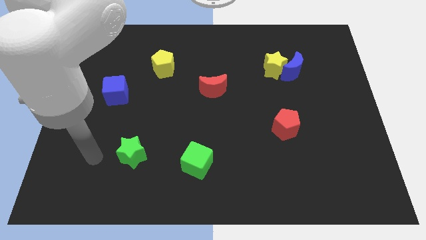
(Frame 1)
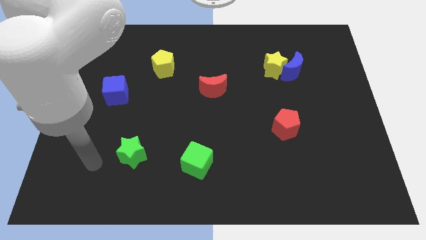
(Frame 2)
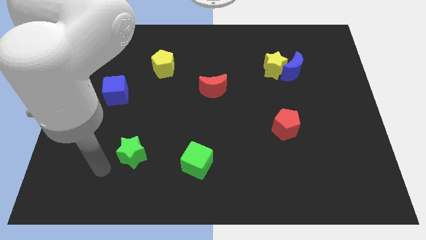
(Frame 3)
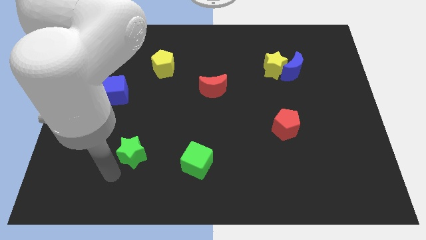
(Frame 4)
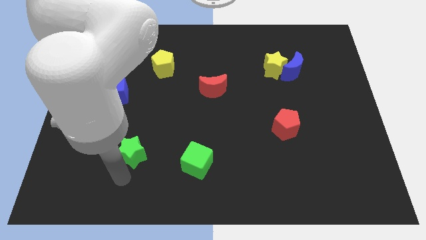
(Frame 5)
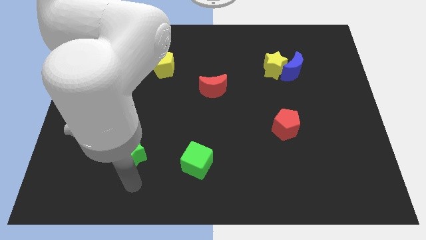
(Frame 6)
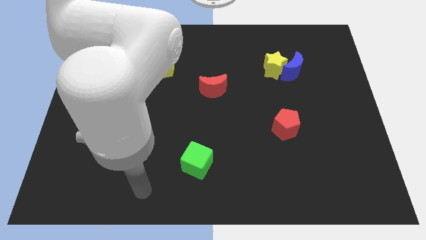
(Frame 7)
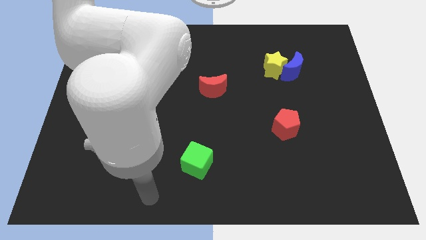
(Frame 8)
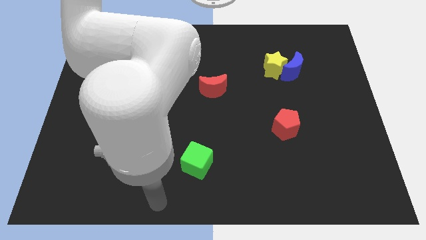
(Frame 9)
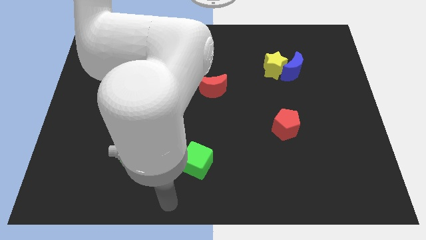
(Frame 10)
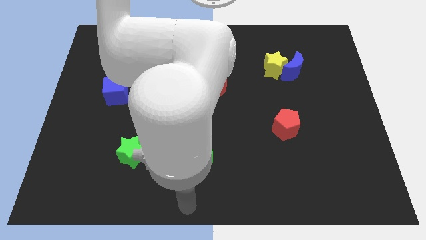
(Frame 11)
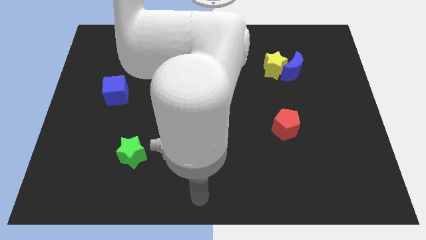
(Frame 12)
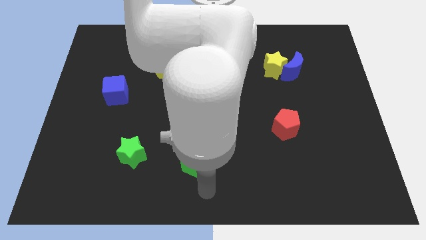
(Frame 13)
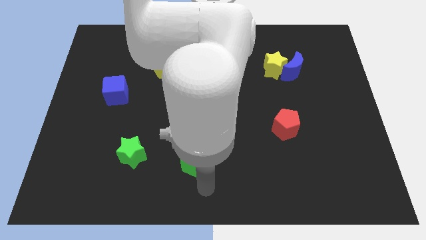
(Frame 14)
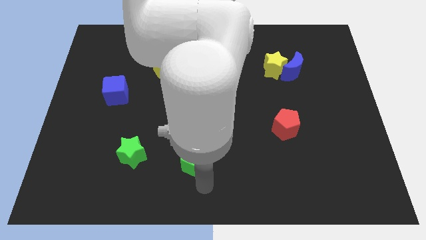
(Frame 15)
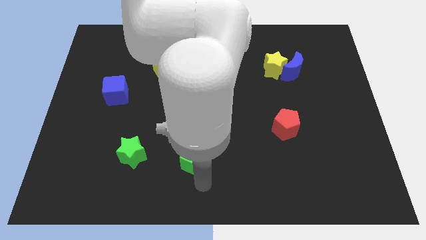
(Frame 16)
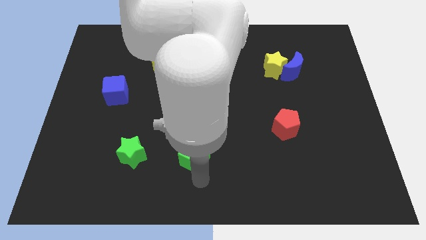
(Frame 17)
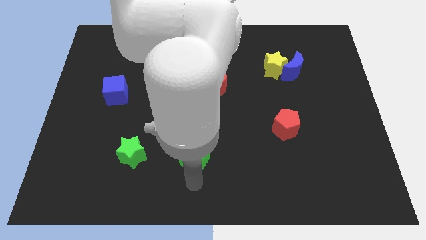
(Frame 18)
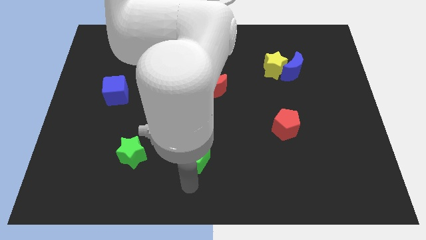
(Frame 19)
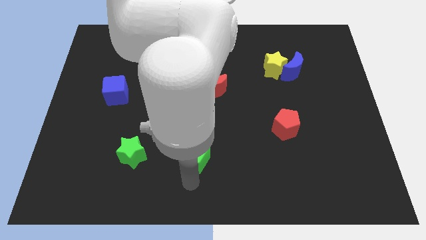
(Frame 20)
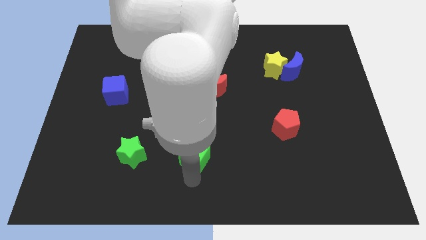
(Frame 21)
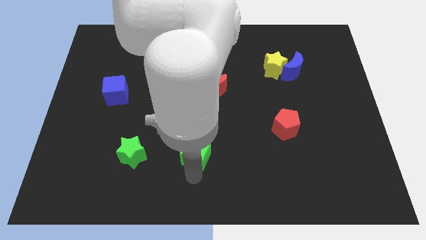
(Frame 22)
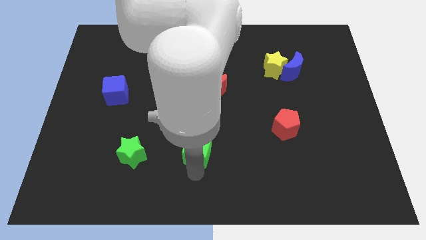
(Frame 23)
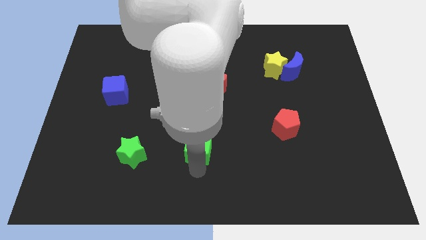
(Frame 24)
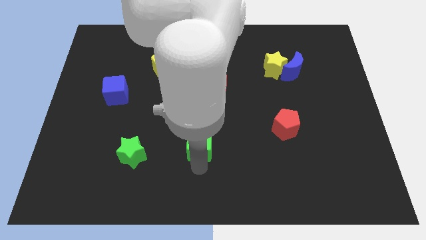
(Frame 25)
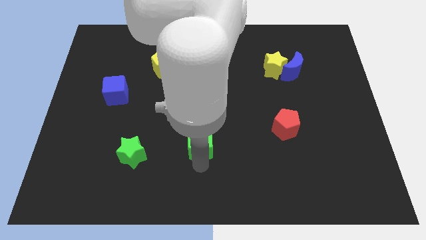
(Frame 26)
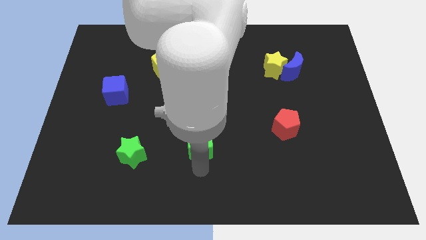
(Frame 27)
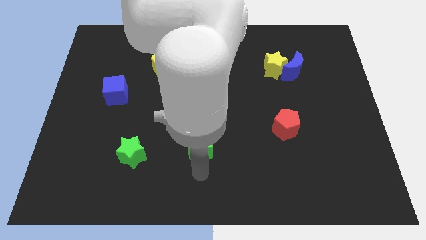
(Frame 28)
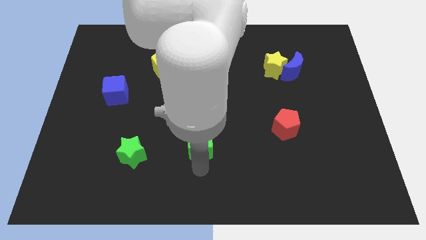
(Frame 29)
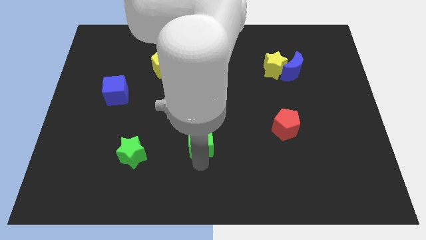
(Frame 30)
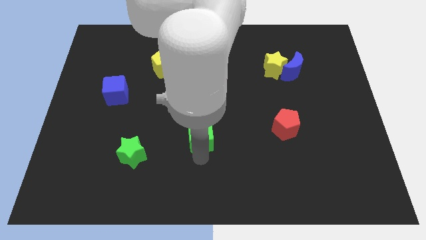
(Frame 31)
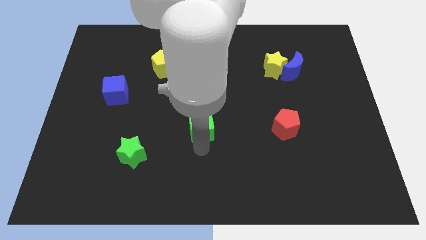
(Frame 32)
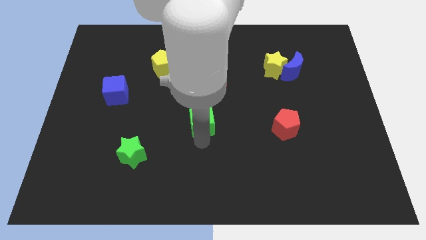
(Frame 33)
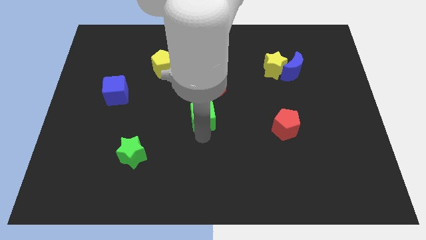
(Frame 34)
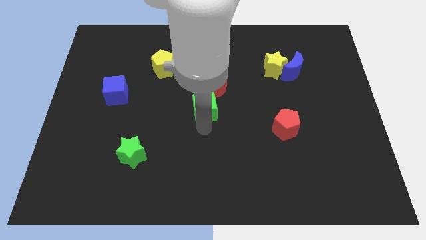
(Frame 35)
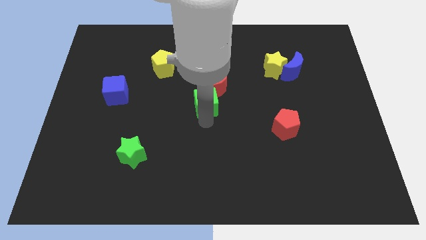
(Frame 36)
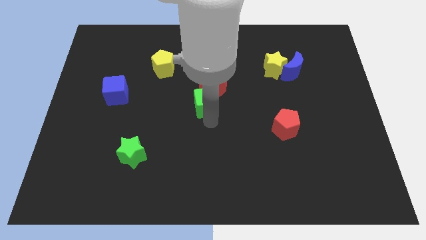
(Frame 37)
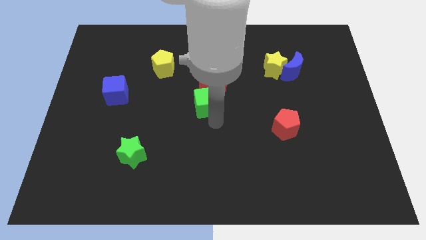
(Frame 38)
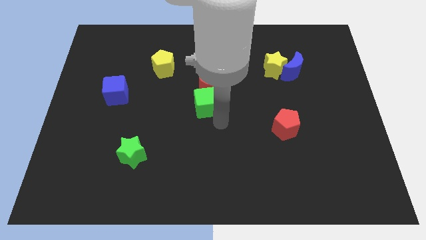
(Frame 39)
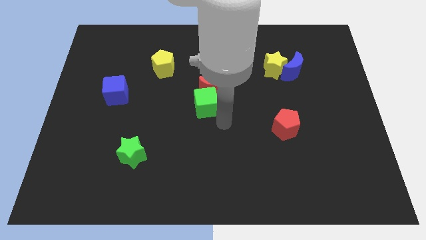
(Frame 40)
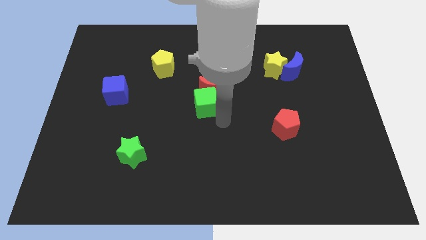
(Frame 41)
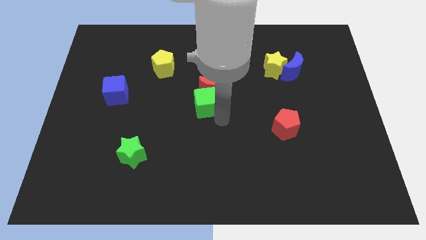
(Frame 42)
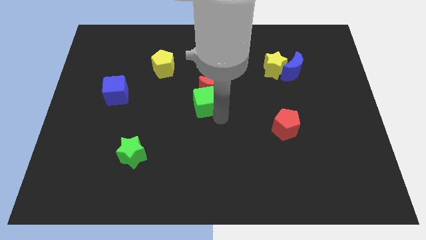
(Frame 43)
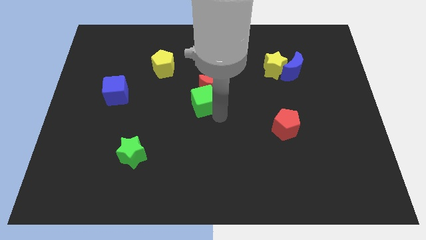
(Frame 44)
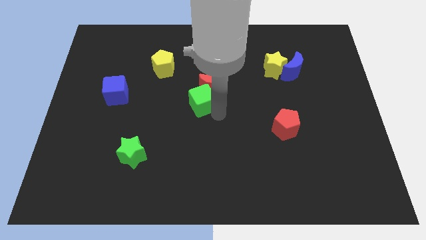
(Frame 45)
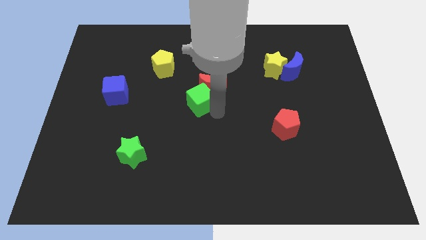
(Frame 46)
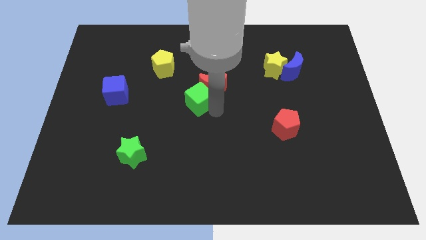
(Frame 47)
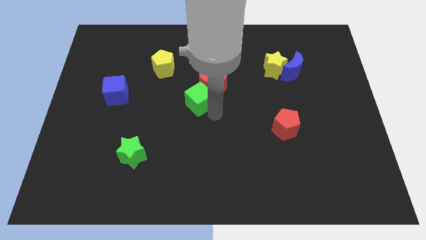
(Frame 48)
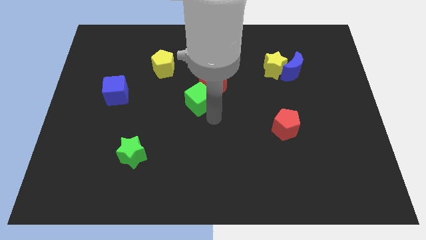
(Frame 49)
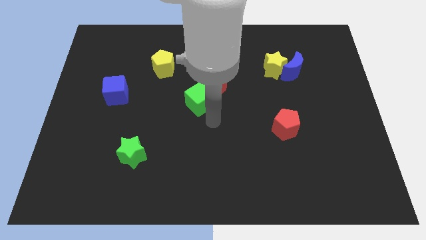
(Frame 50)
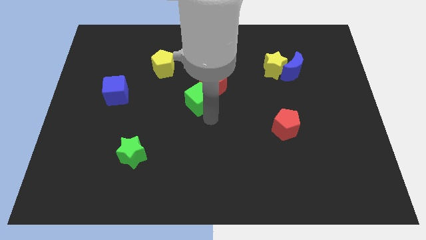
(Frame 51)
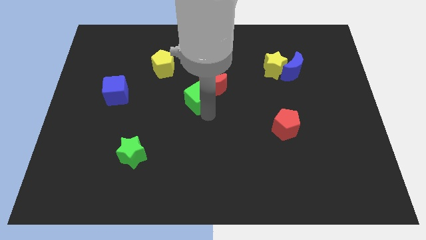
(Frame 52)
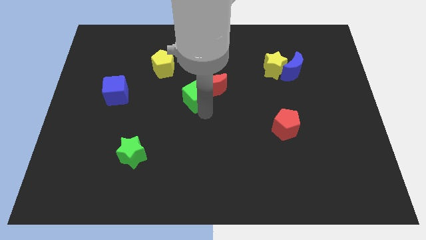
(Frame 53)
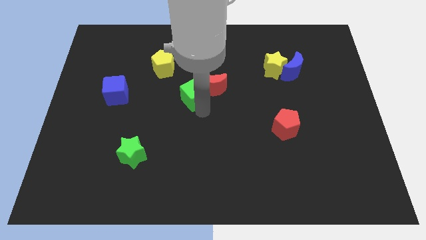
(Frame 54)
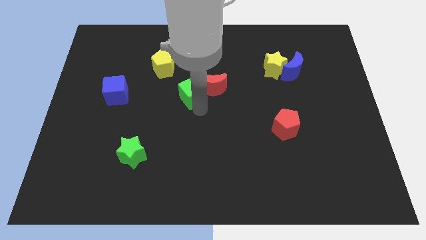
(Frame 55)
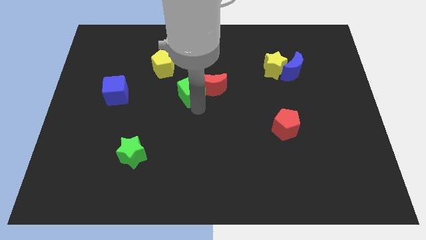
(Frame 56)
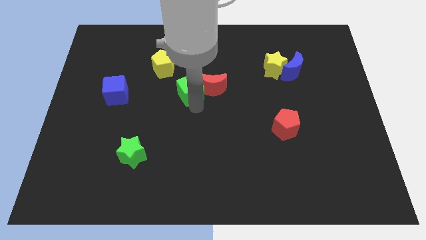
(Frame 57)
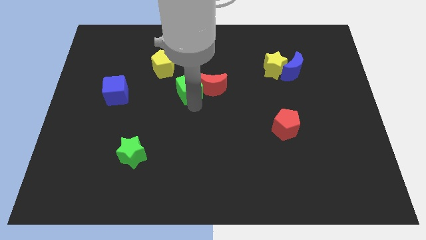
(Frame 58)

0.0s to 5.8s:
slide the green cube upwards

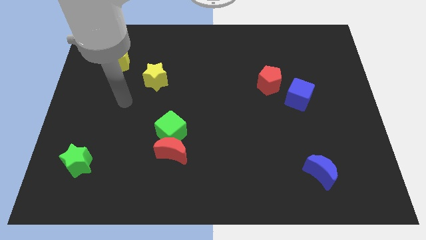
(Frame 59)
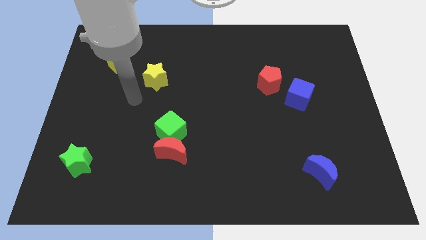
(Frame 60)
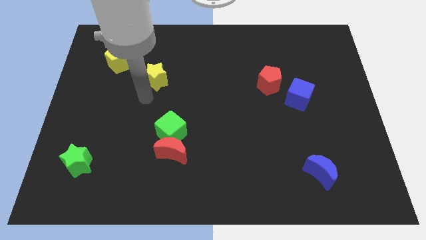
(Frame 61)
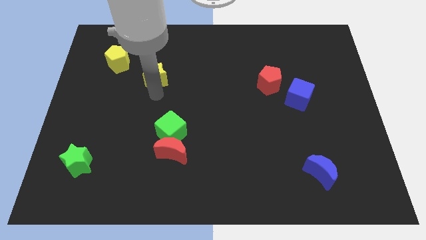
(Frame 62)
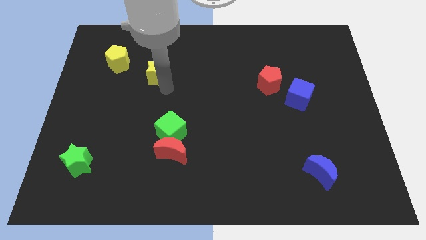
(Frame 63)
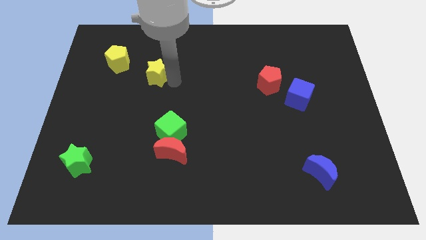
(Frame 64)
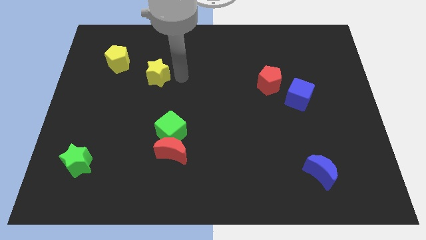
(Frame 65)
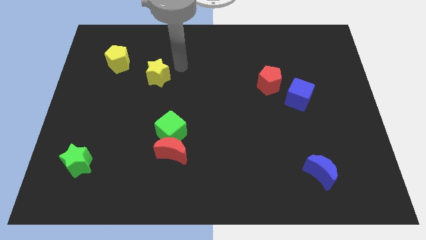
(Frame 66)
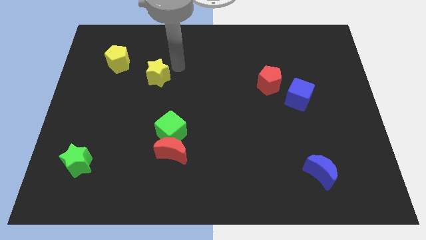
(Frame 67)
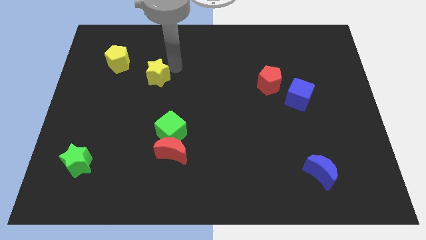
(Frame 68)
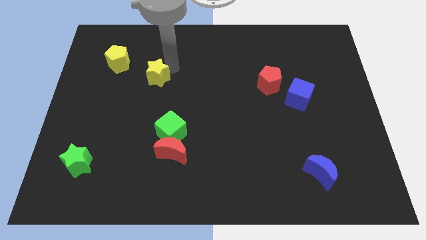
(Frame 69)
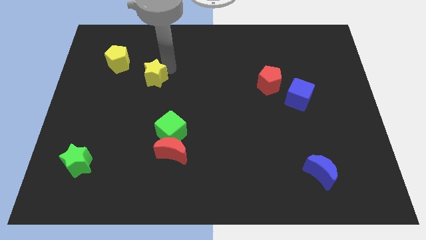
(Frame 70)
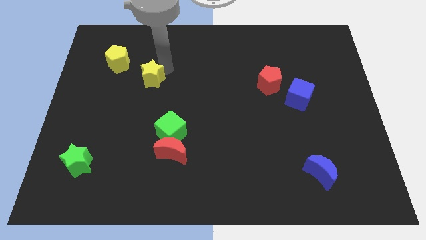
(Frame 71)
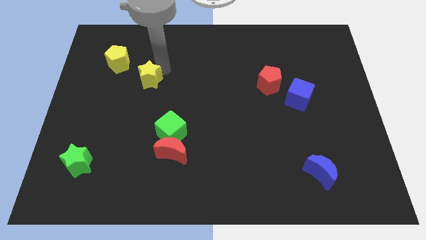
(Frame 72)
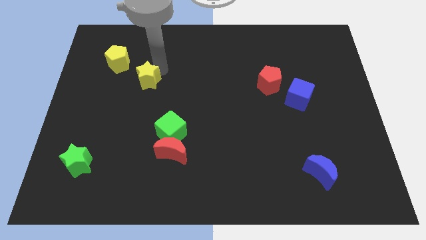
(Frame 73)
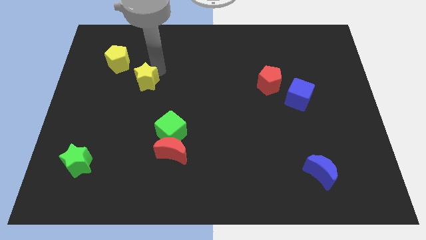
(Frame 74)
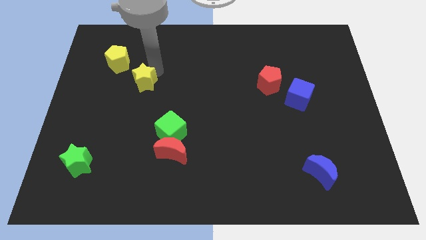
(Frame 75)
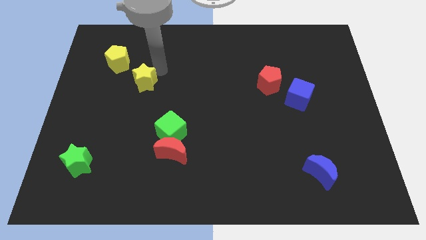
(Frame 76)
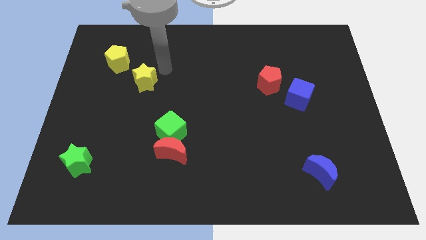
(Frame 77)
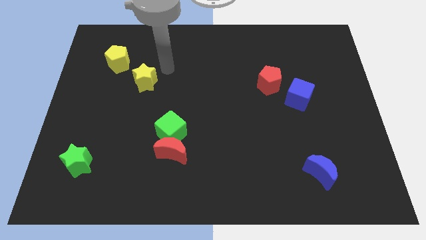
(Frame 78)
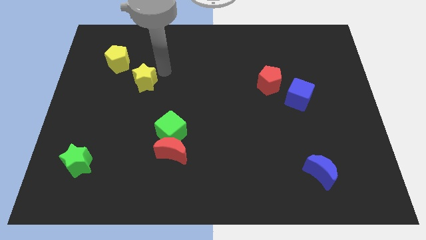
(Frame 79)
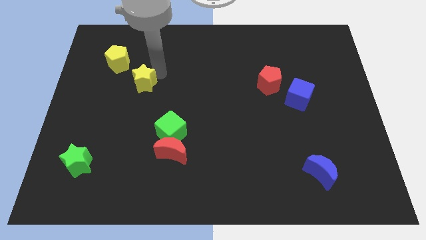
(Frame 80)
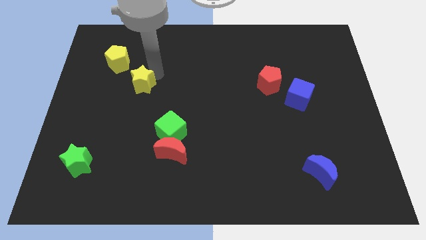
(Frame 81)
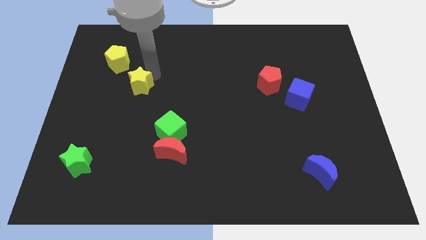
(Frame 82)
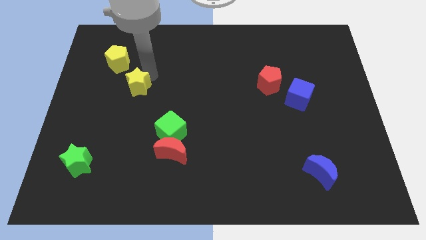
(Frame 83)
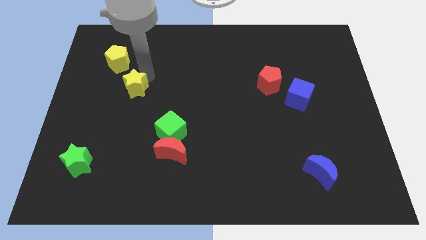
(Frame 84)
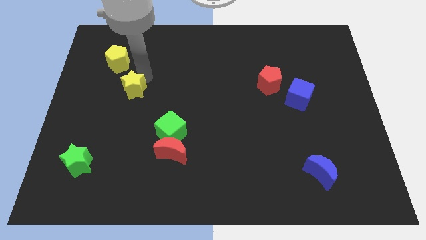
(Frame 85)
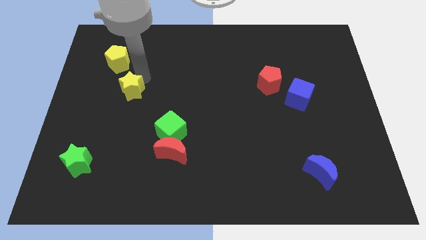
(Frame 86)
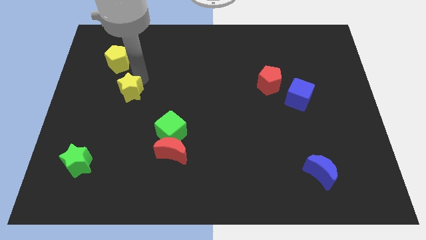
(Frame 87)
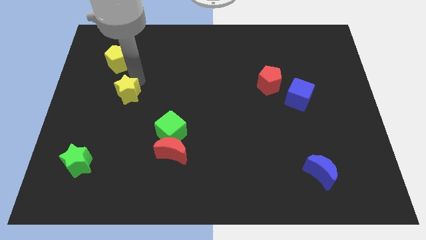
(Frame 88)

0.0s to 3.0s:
push the yellow star downwards and to the left somewhat
